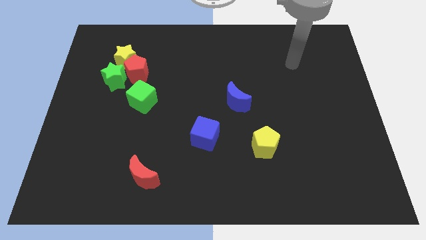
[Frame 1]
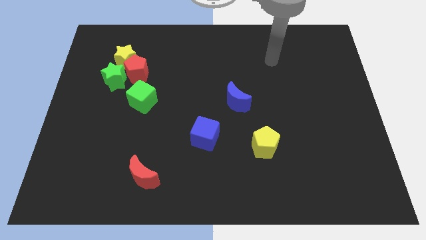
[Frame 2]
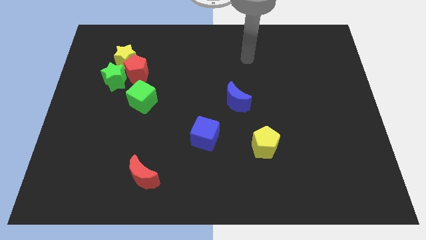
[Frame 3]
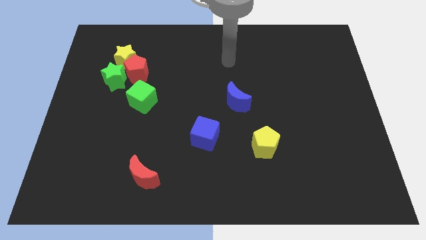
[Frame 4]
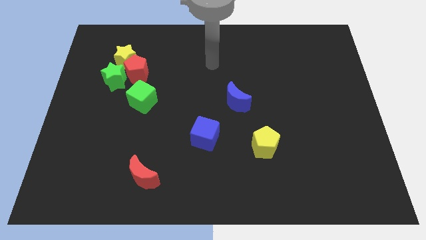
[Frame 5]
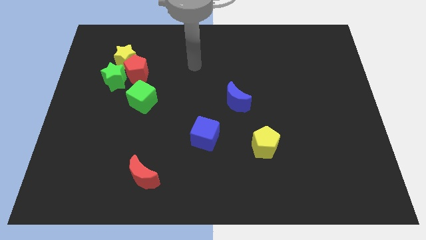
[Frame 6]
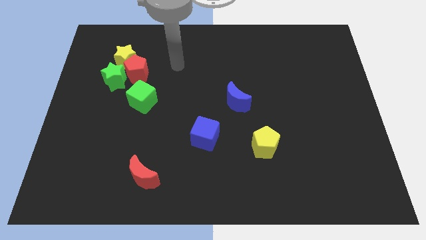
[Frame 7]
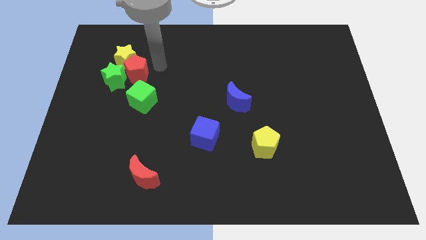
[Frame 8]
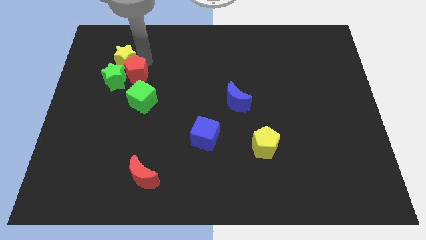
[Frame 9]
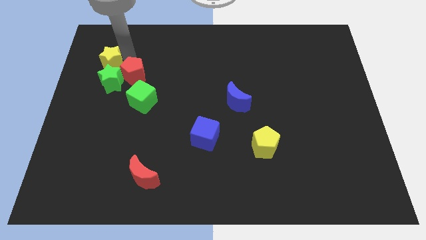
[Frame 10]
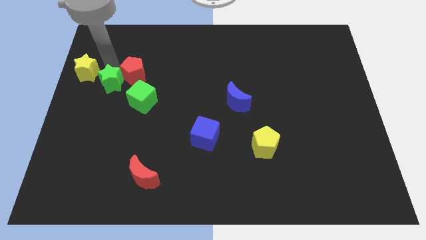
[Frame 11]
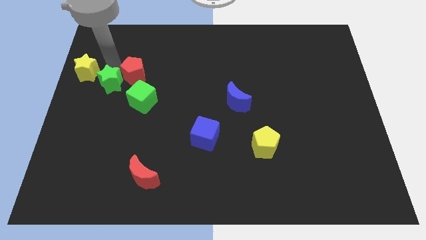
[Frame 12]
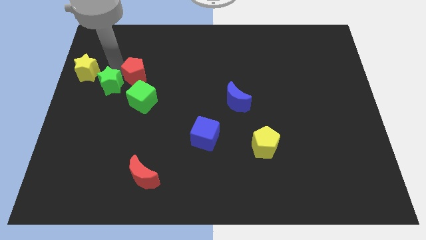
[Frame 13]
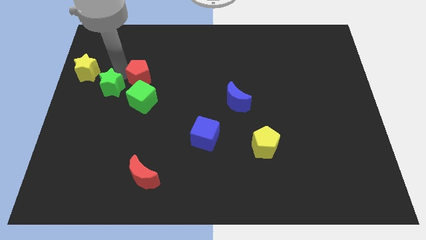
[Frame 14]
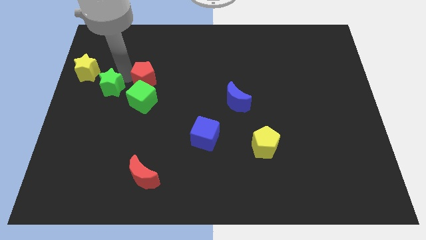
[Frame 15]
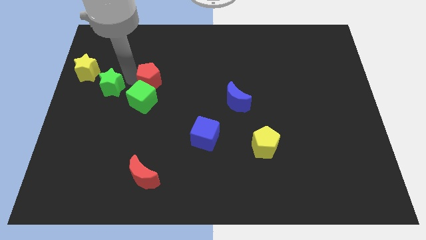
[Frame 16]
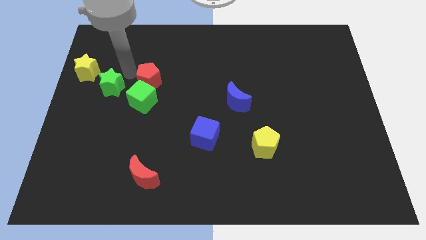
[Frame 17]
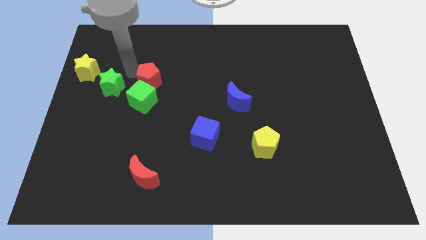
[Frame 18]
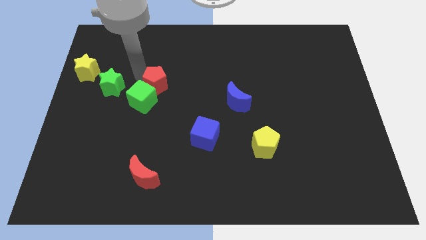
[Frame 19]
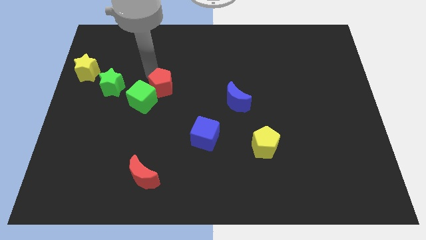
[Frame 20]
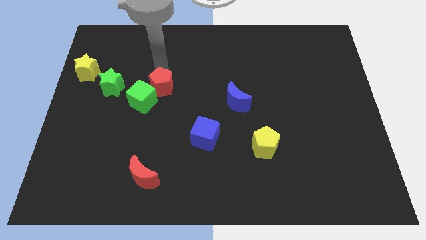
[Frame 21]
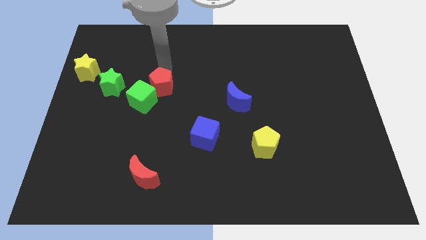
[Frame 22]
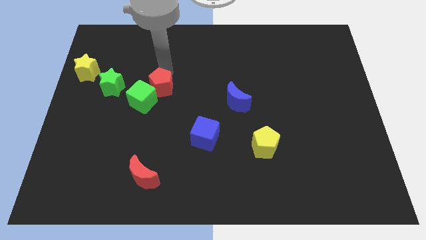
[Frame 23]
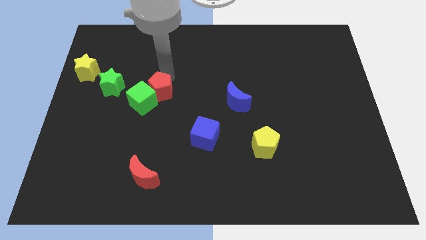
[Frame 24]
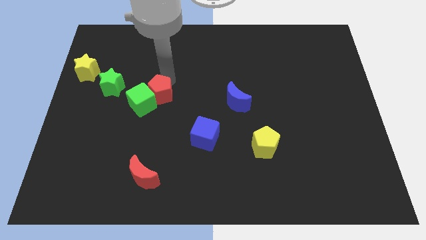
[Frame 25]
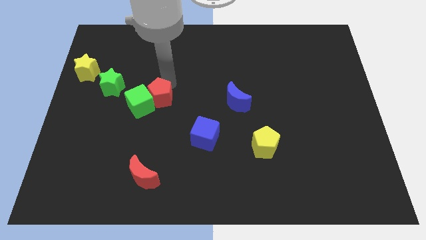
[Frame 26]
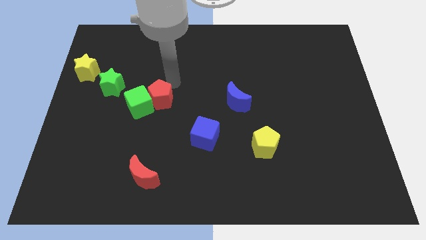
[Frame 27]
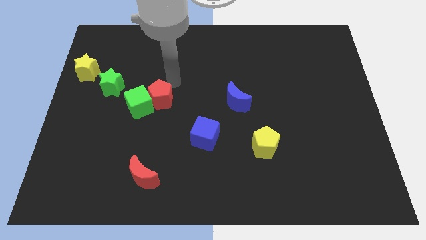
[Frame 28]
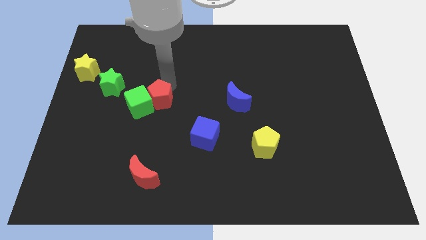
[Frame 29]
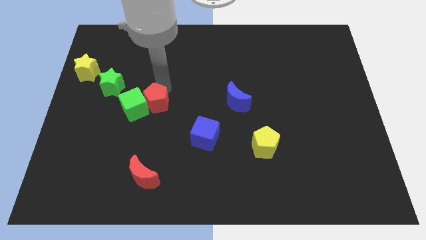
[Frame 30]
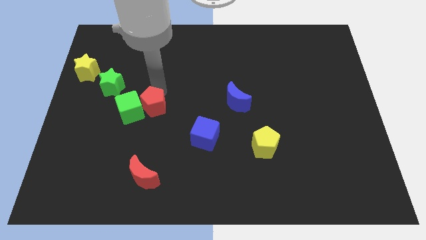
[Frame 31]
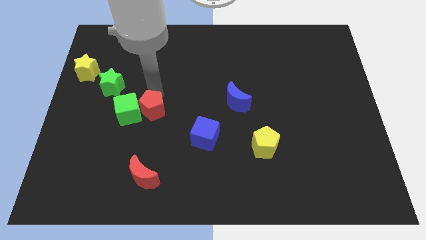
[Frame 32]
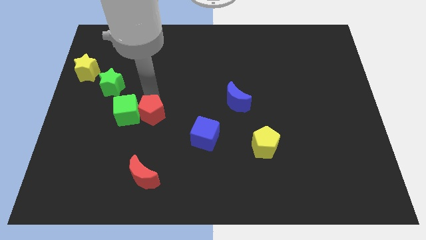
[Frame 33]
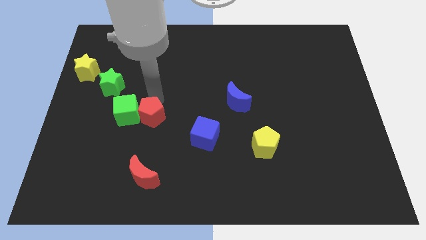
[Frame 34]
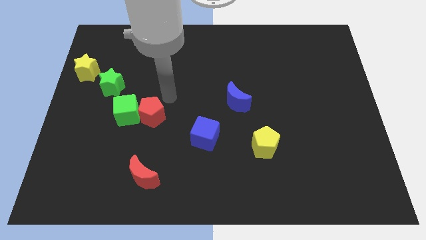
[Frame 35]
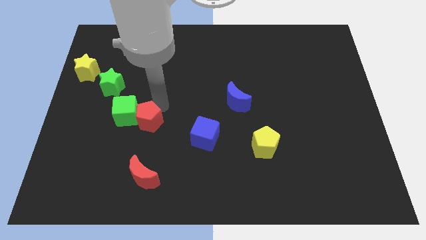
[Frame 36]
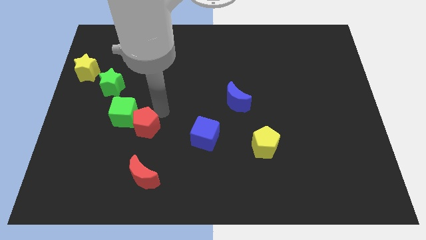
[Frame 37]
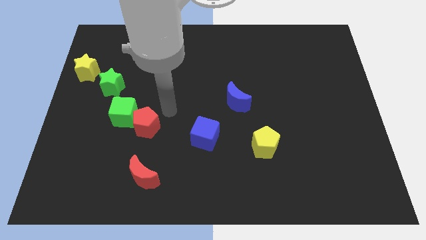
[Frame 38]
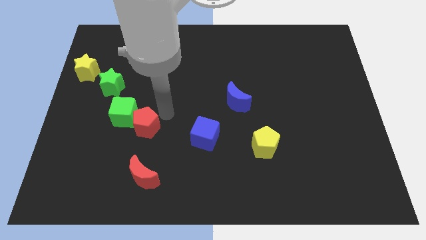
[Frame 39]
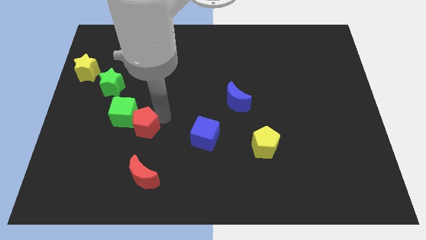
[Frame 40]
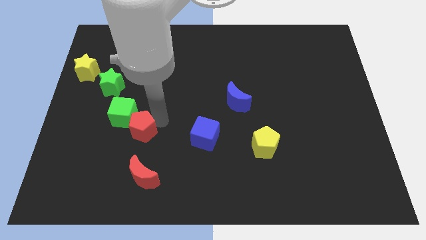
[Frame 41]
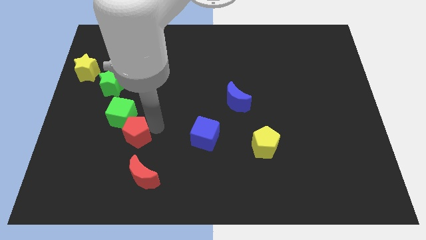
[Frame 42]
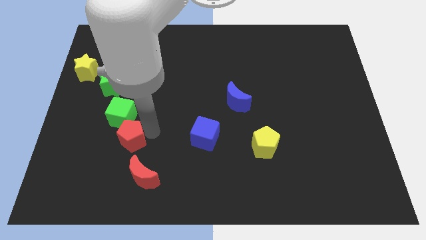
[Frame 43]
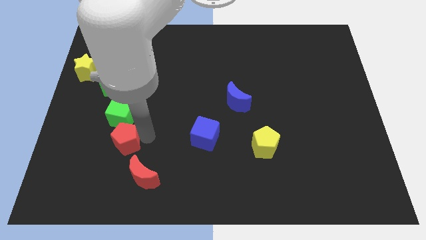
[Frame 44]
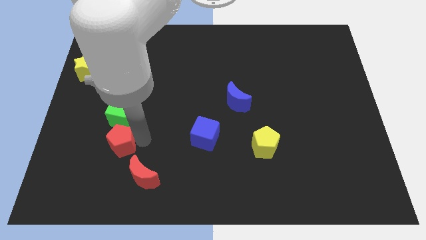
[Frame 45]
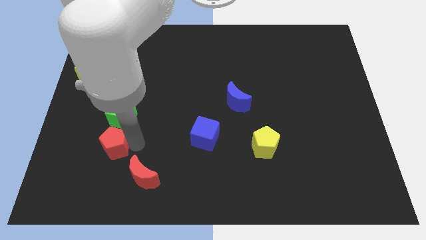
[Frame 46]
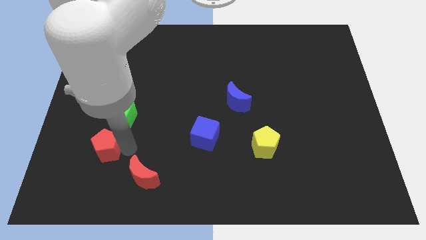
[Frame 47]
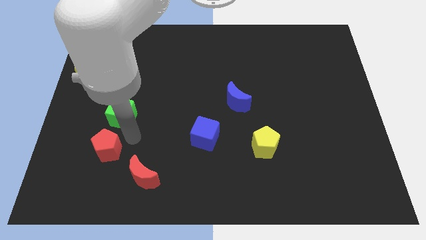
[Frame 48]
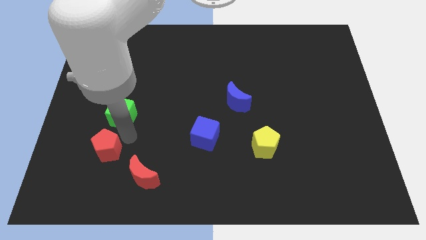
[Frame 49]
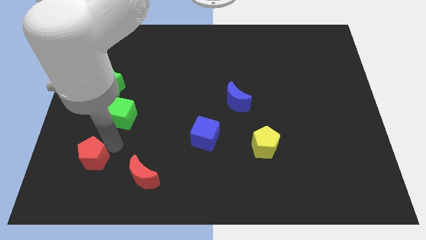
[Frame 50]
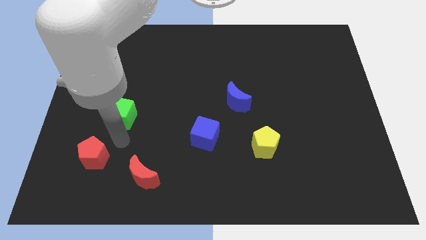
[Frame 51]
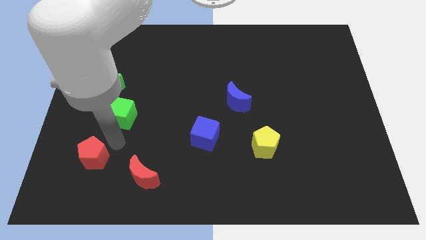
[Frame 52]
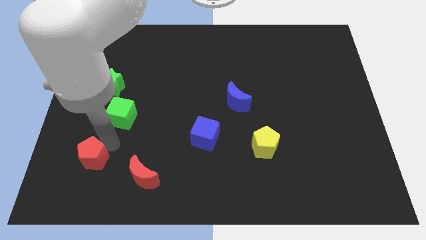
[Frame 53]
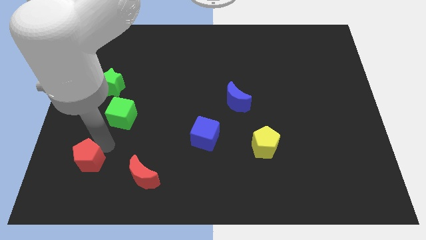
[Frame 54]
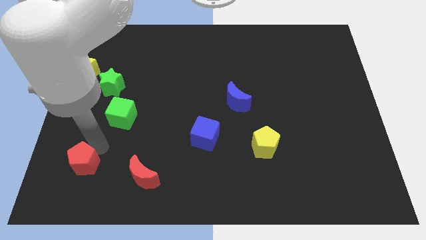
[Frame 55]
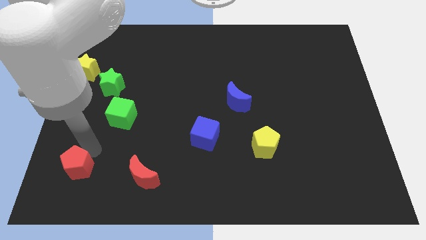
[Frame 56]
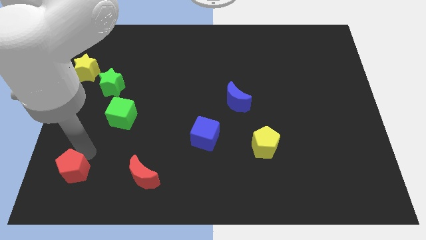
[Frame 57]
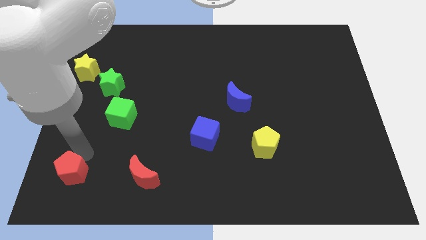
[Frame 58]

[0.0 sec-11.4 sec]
put the red pentagon to the bottom left
